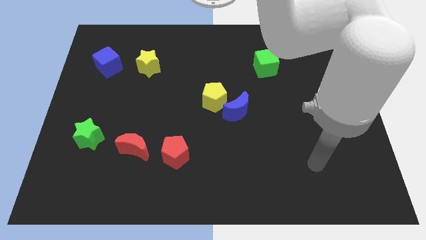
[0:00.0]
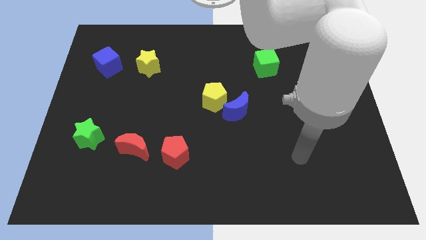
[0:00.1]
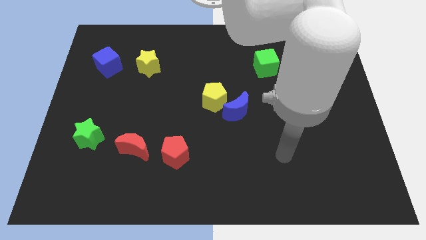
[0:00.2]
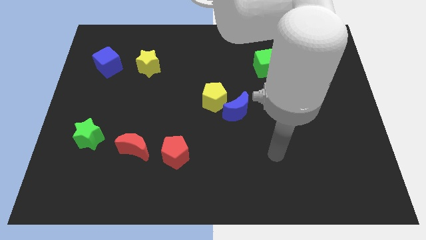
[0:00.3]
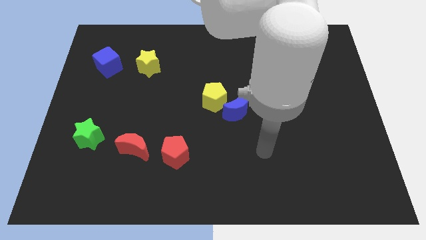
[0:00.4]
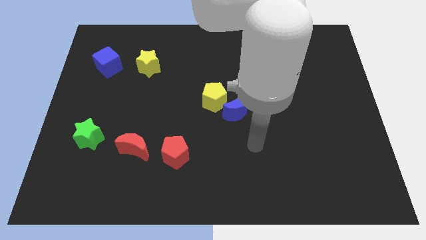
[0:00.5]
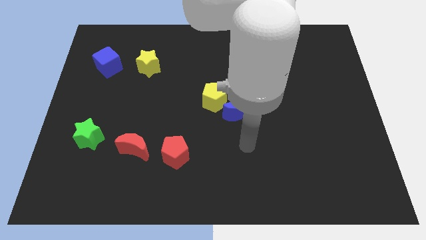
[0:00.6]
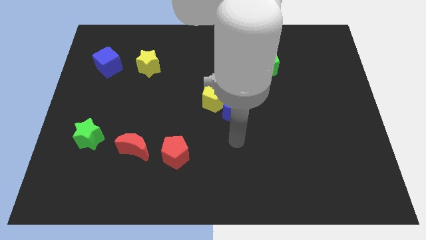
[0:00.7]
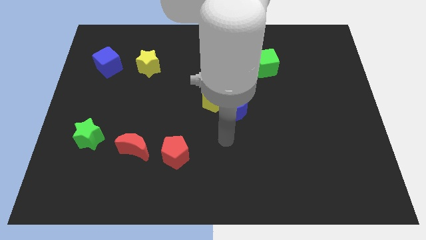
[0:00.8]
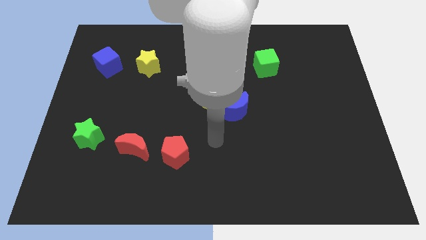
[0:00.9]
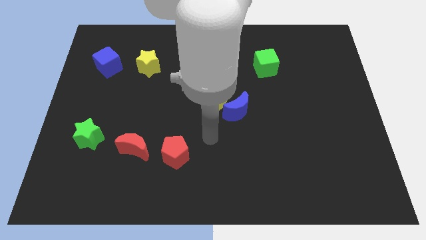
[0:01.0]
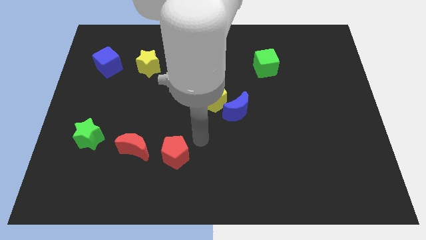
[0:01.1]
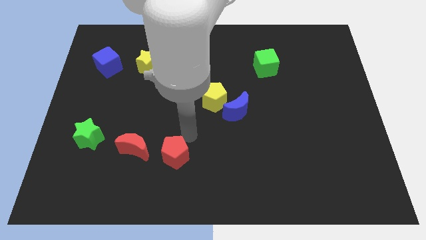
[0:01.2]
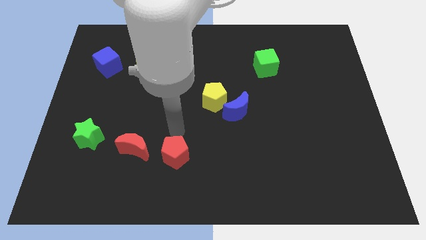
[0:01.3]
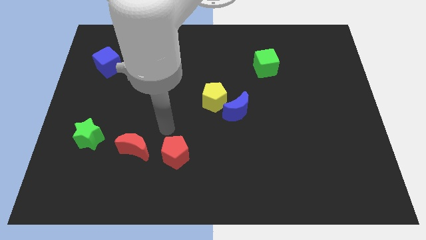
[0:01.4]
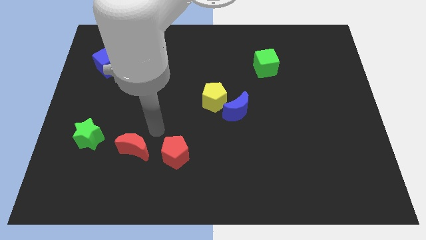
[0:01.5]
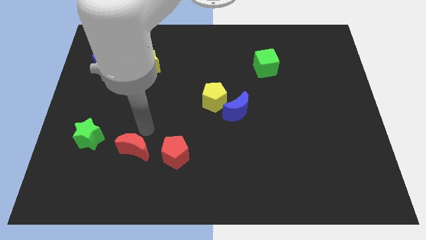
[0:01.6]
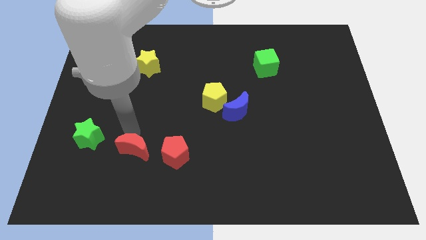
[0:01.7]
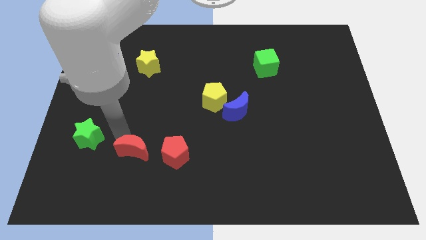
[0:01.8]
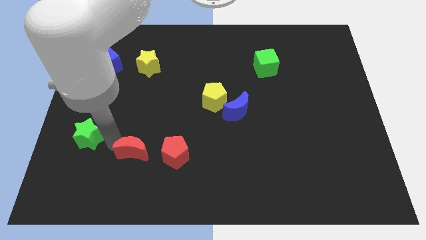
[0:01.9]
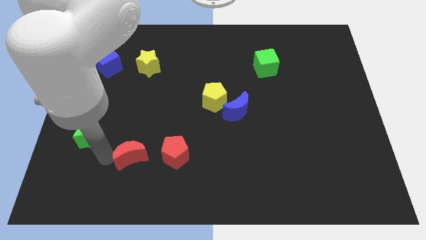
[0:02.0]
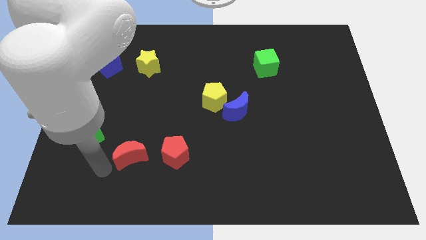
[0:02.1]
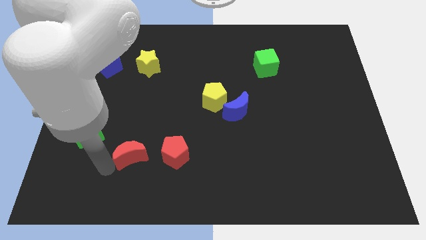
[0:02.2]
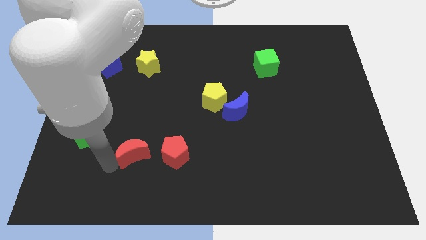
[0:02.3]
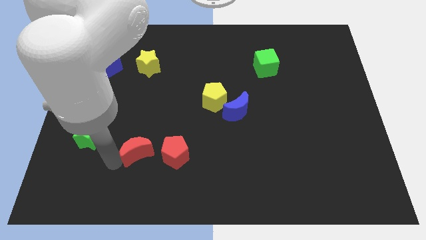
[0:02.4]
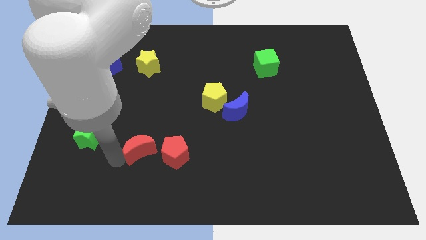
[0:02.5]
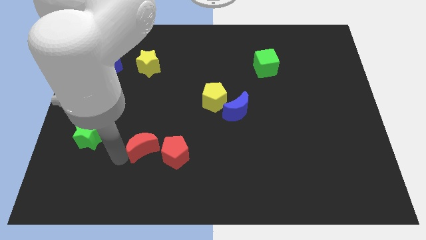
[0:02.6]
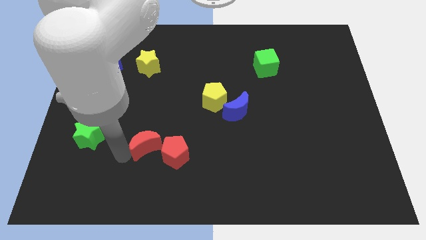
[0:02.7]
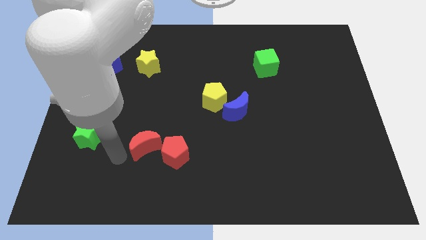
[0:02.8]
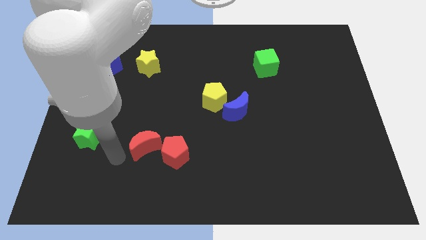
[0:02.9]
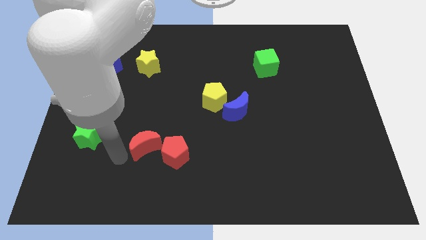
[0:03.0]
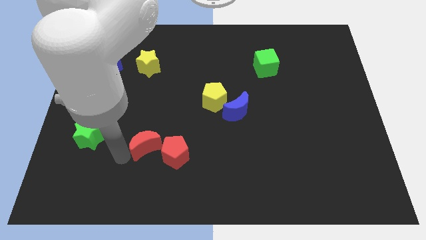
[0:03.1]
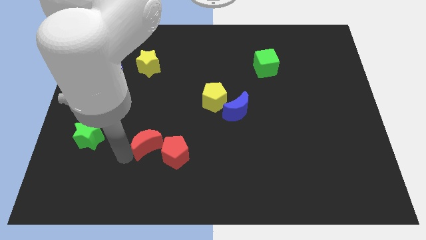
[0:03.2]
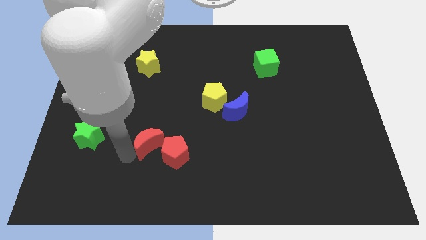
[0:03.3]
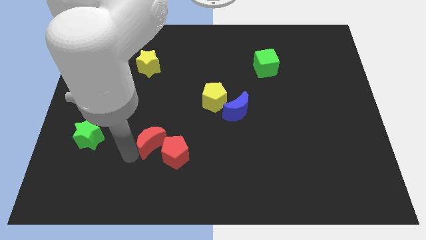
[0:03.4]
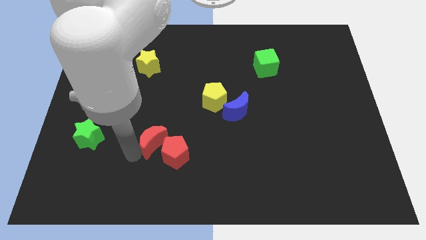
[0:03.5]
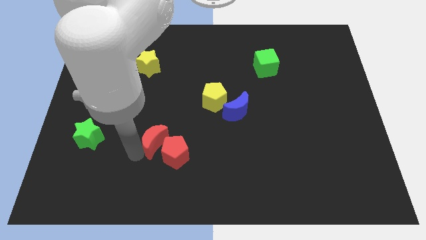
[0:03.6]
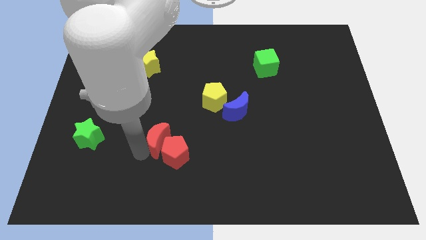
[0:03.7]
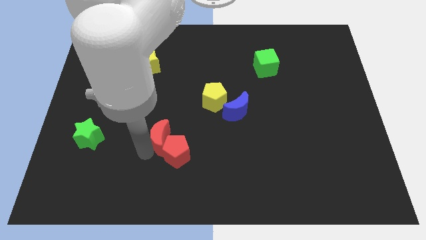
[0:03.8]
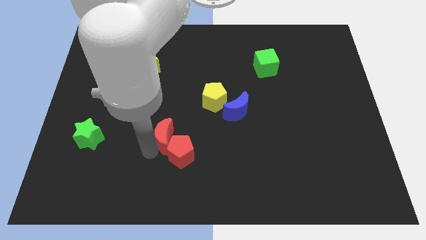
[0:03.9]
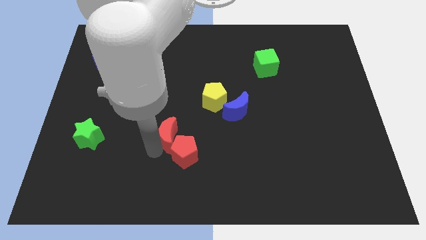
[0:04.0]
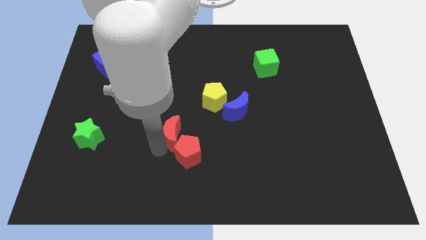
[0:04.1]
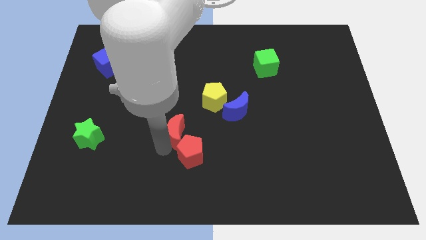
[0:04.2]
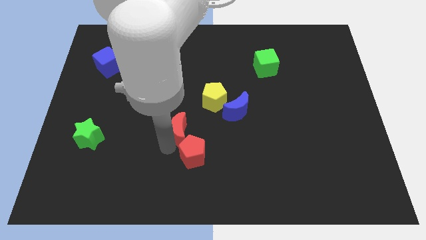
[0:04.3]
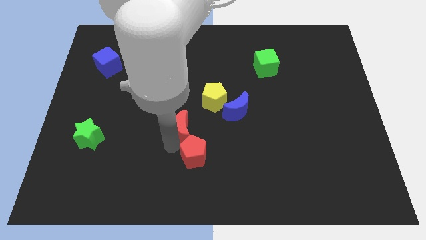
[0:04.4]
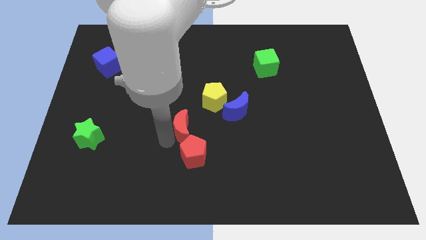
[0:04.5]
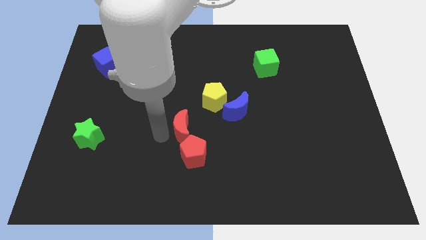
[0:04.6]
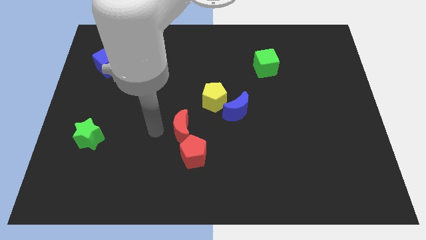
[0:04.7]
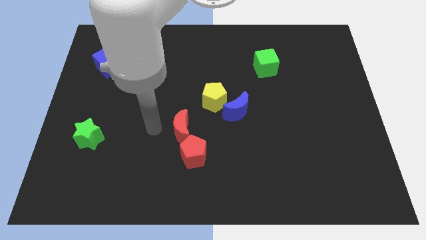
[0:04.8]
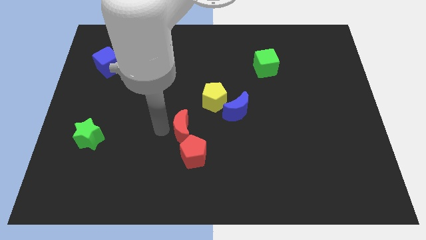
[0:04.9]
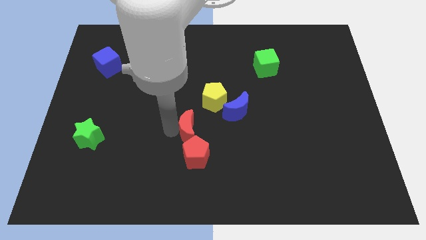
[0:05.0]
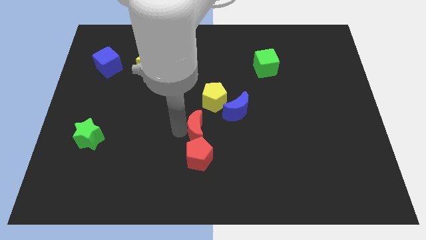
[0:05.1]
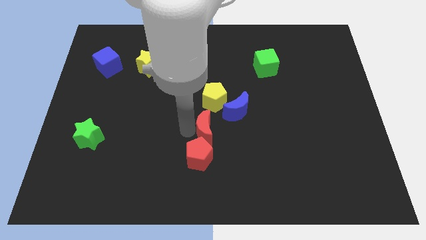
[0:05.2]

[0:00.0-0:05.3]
put the red moon to the top right side of the red pentagon

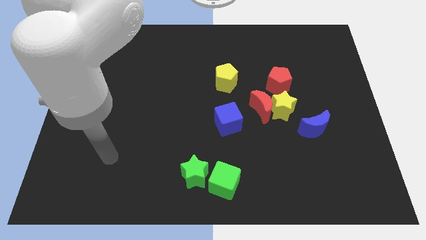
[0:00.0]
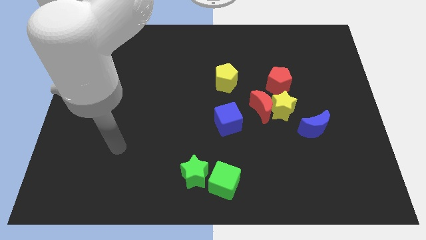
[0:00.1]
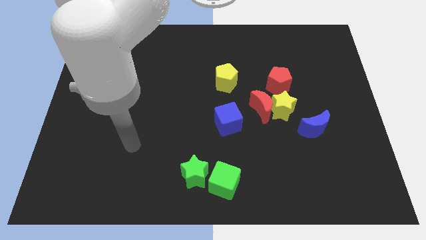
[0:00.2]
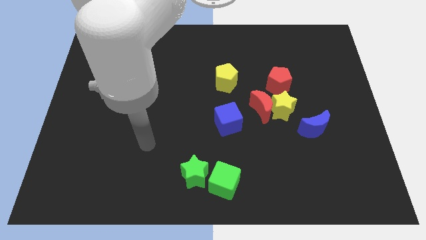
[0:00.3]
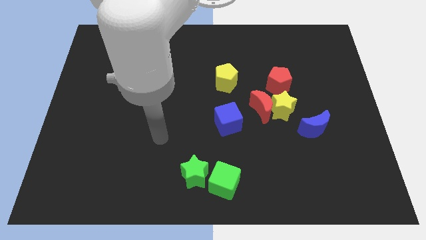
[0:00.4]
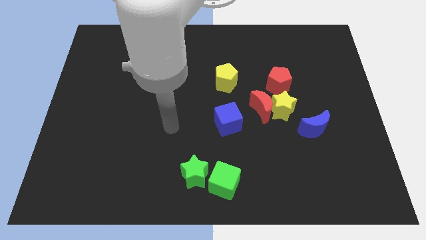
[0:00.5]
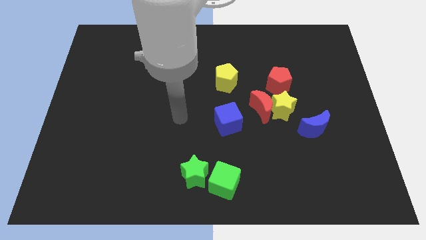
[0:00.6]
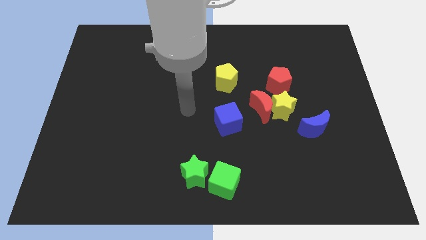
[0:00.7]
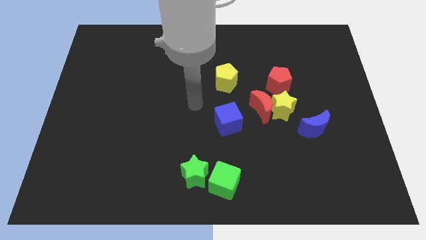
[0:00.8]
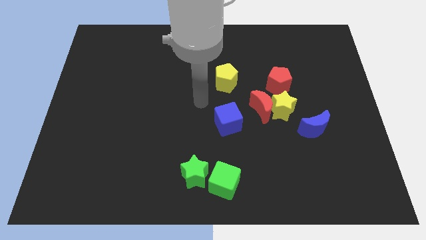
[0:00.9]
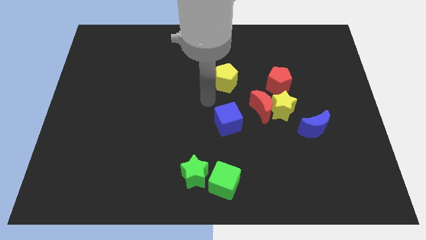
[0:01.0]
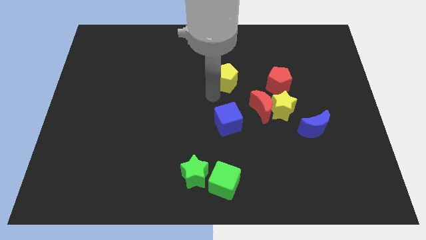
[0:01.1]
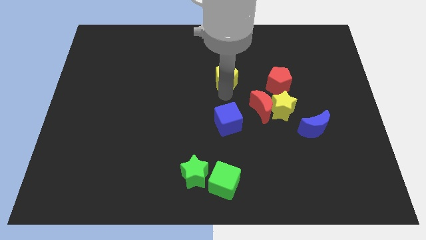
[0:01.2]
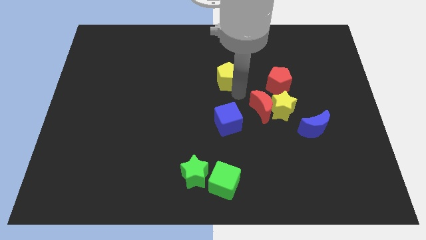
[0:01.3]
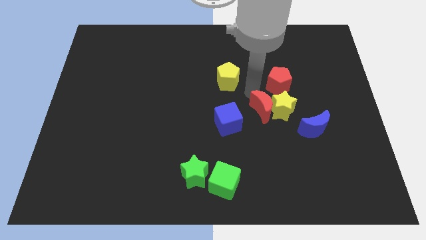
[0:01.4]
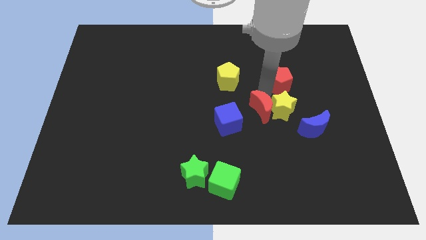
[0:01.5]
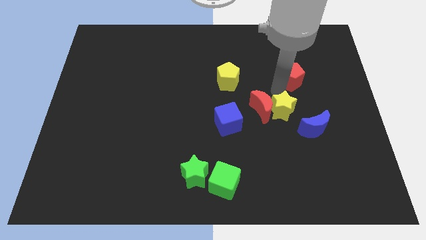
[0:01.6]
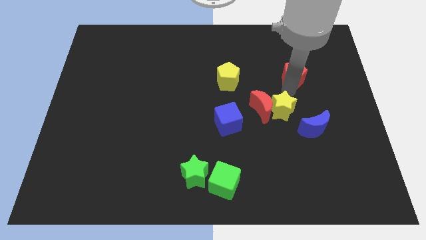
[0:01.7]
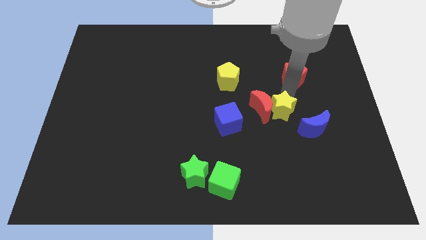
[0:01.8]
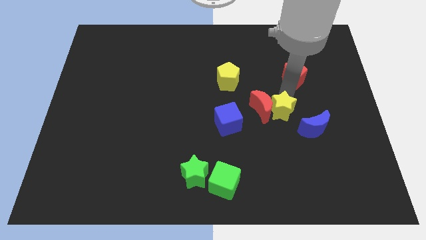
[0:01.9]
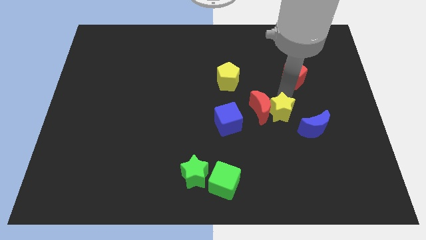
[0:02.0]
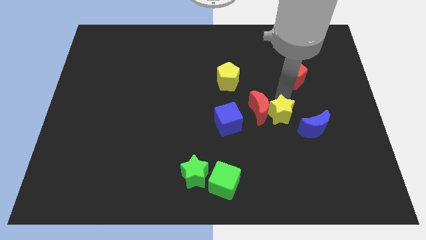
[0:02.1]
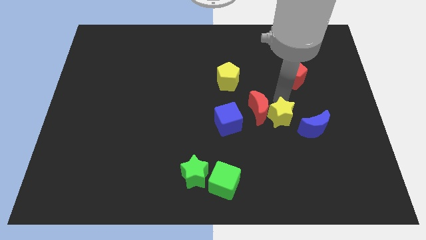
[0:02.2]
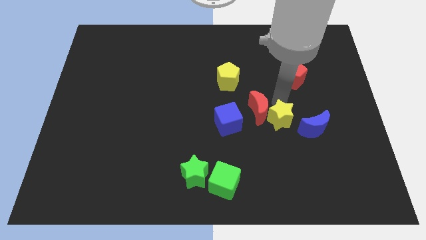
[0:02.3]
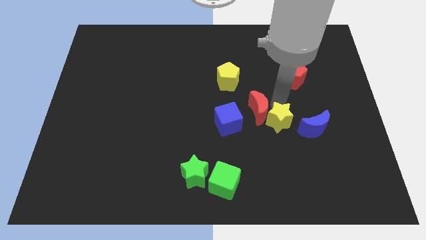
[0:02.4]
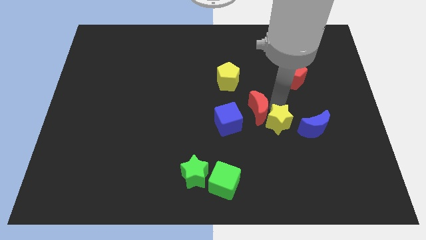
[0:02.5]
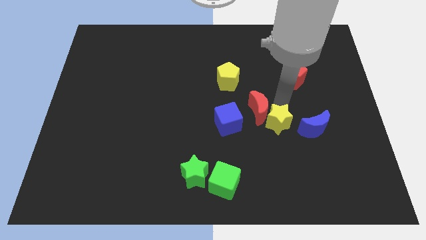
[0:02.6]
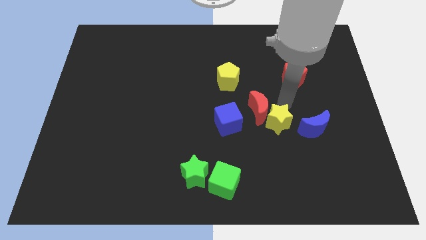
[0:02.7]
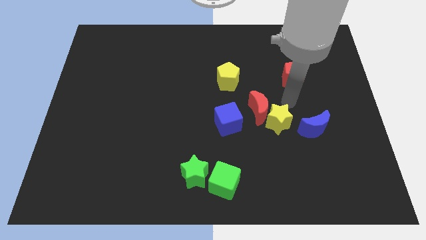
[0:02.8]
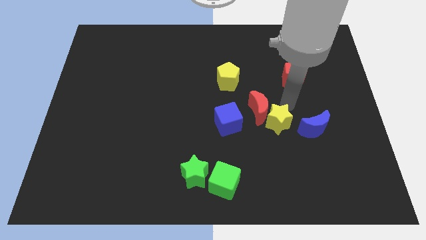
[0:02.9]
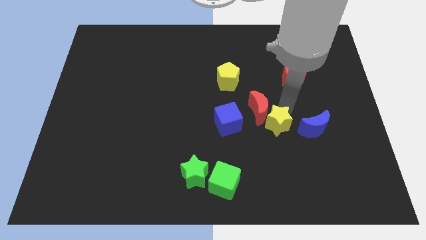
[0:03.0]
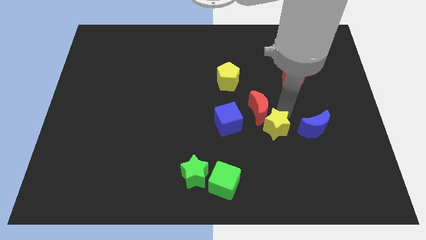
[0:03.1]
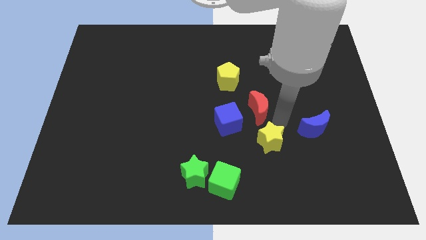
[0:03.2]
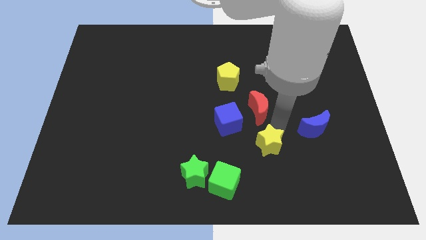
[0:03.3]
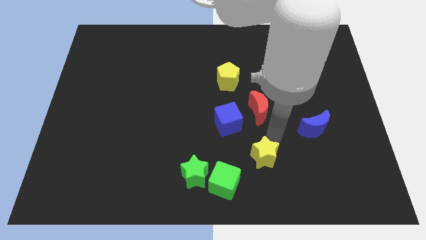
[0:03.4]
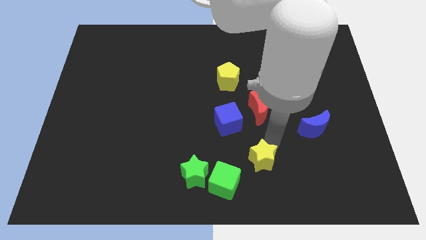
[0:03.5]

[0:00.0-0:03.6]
move the yellow star right of the green star
